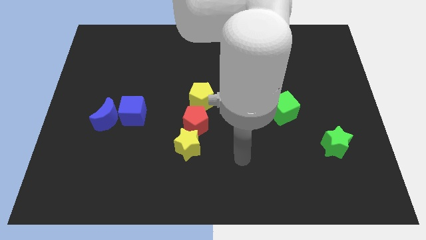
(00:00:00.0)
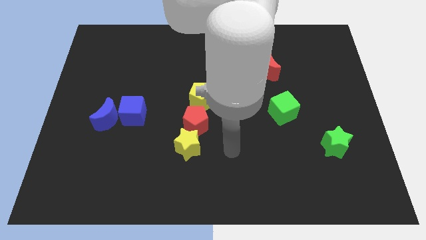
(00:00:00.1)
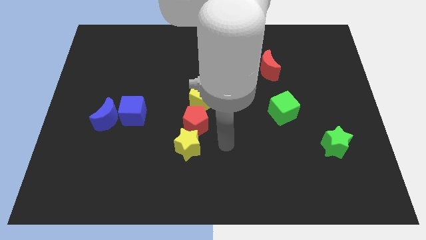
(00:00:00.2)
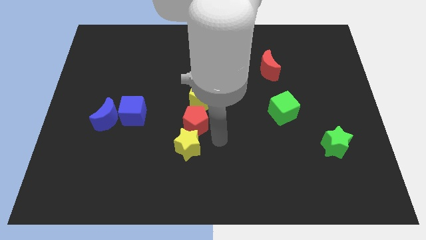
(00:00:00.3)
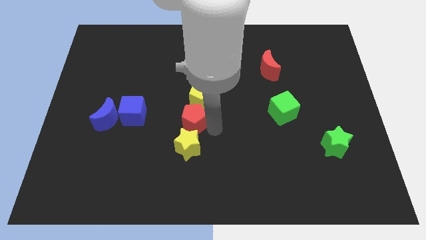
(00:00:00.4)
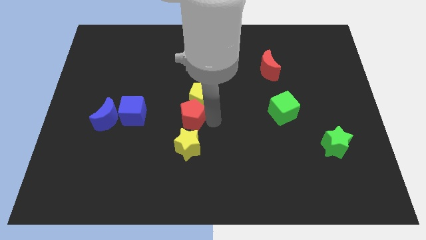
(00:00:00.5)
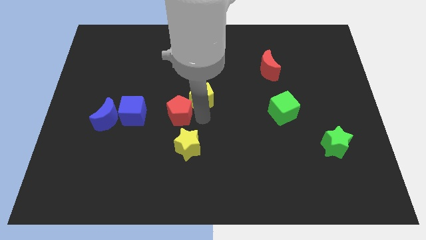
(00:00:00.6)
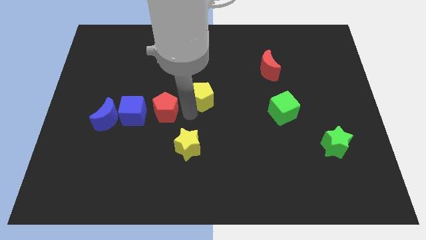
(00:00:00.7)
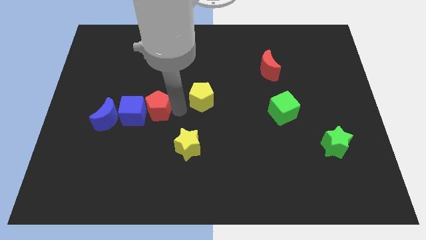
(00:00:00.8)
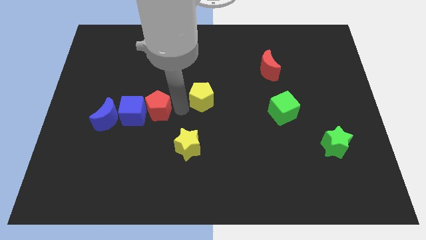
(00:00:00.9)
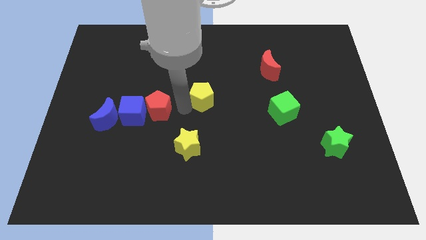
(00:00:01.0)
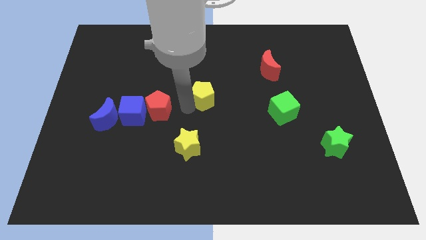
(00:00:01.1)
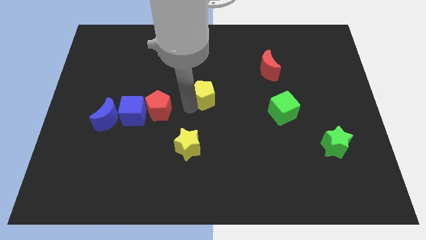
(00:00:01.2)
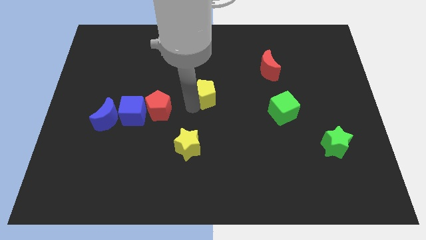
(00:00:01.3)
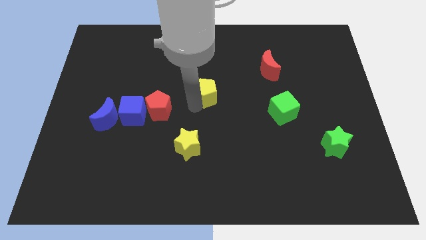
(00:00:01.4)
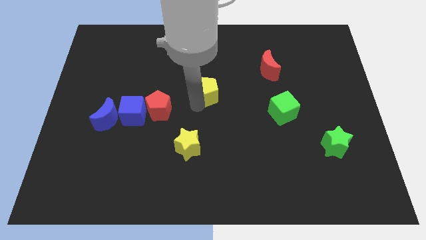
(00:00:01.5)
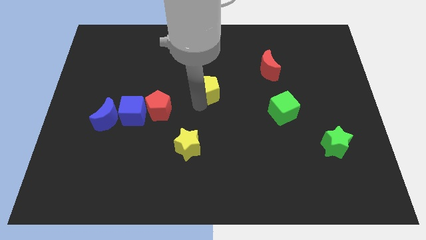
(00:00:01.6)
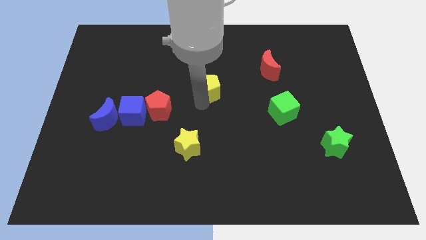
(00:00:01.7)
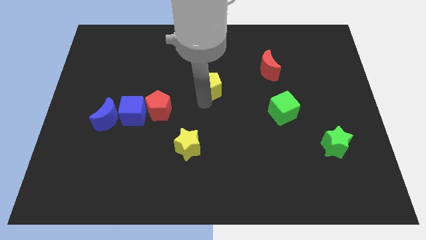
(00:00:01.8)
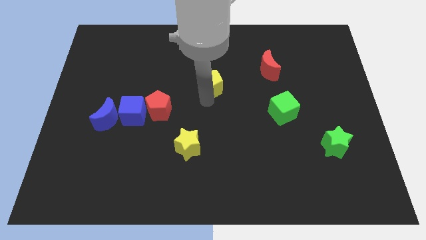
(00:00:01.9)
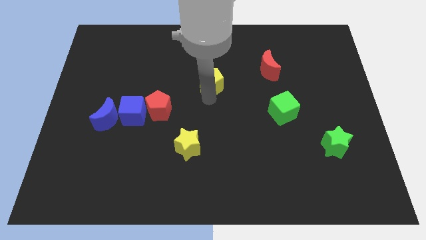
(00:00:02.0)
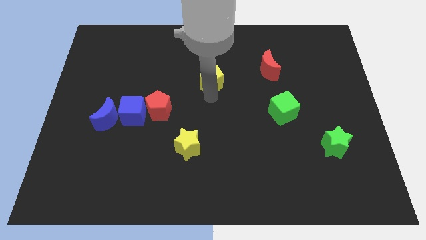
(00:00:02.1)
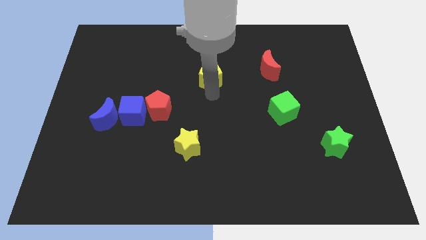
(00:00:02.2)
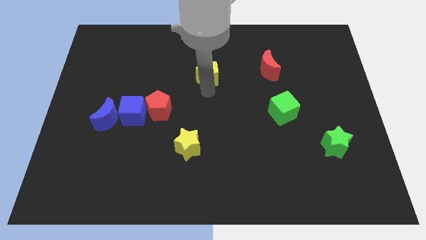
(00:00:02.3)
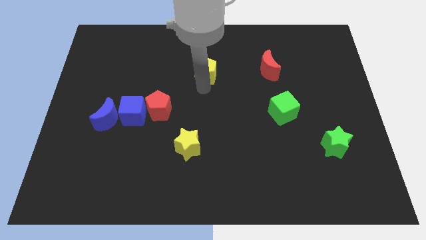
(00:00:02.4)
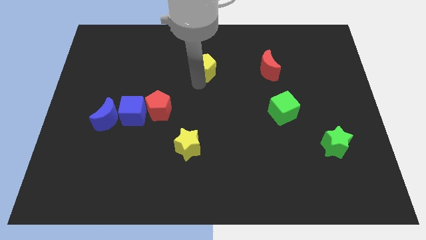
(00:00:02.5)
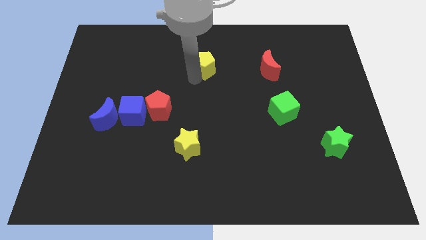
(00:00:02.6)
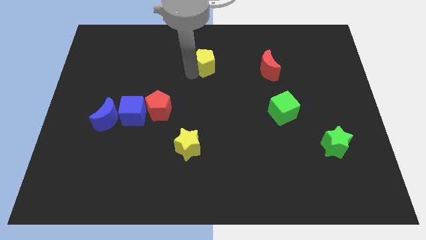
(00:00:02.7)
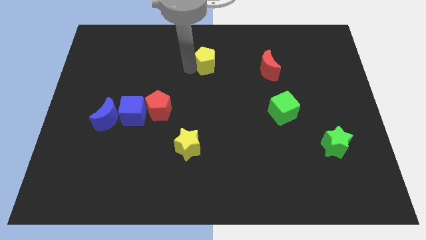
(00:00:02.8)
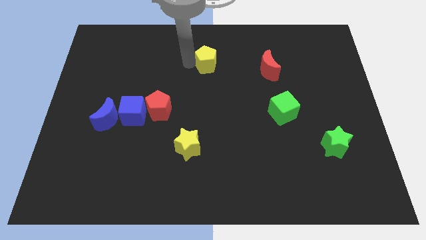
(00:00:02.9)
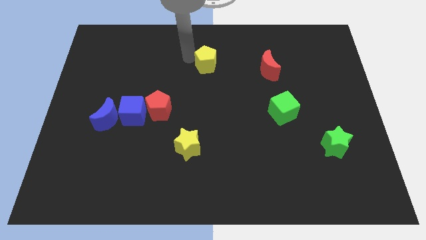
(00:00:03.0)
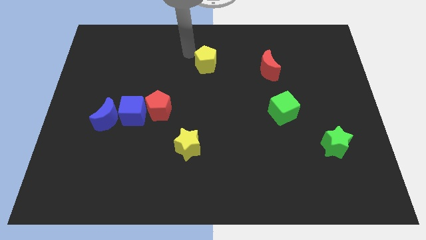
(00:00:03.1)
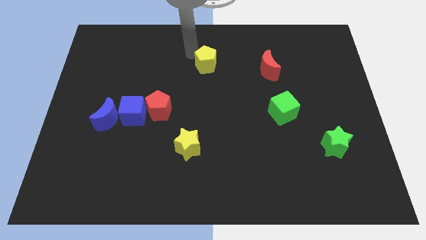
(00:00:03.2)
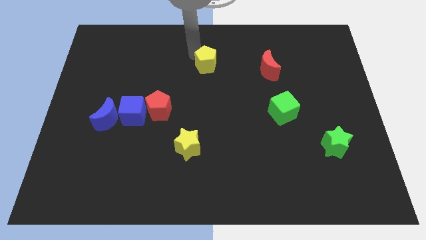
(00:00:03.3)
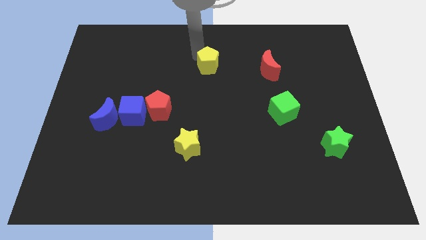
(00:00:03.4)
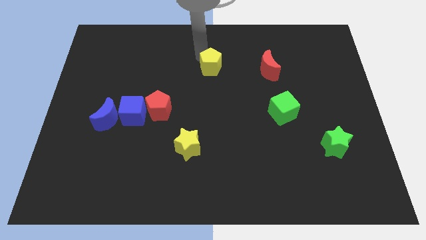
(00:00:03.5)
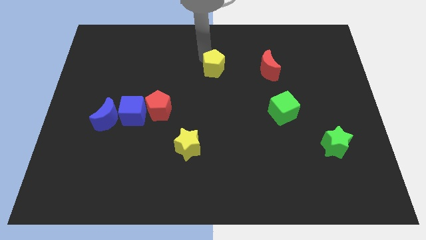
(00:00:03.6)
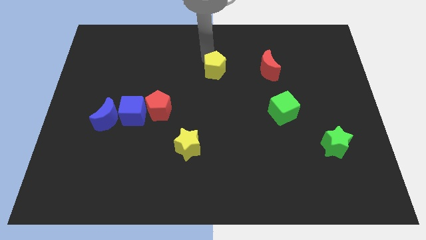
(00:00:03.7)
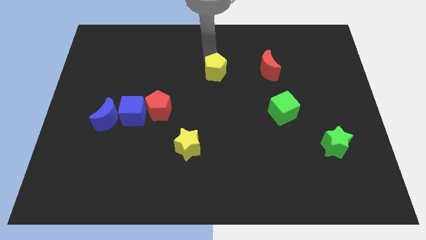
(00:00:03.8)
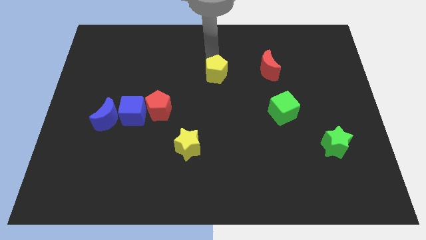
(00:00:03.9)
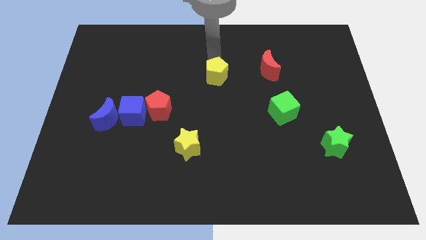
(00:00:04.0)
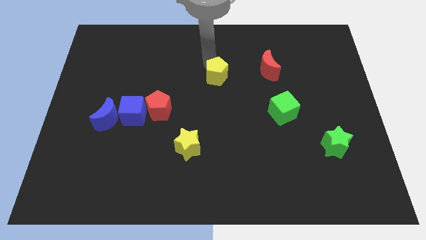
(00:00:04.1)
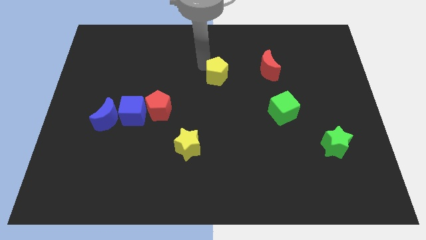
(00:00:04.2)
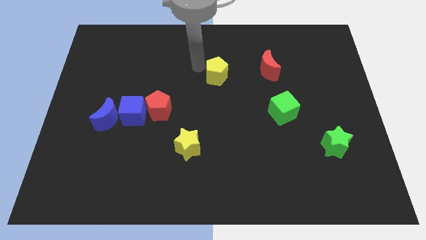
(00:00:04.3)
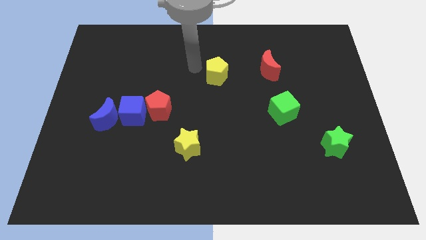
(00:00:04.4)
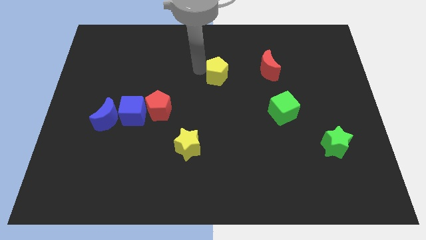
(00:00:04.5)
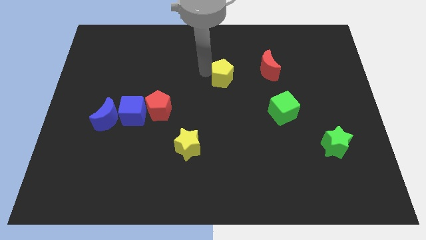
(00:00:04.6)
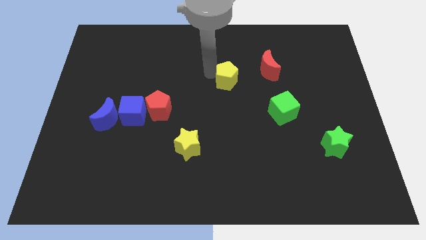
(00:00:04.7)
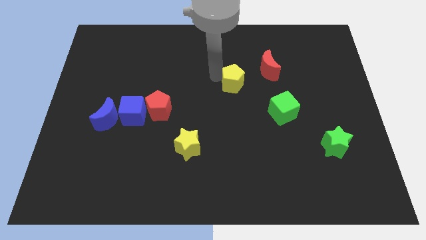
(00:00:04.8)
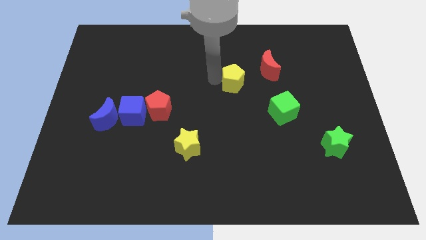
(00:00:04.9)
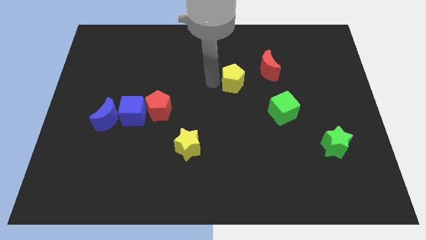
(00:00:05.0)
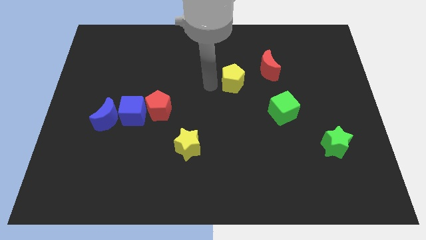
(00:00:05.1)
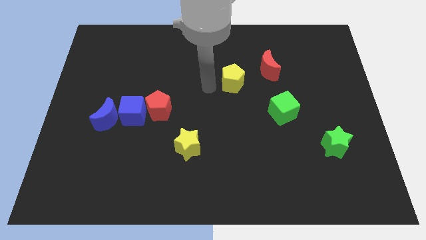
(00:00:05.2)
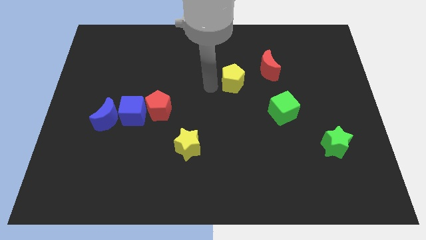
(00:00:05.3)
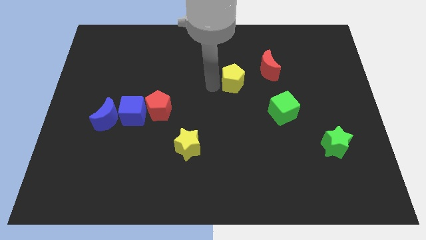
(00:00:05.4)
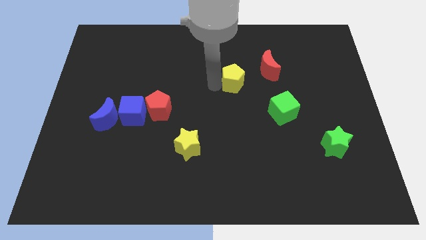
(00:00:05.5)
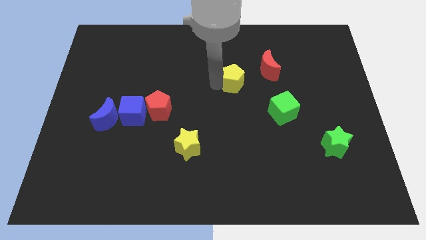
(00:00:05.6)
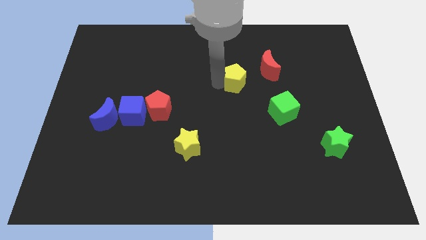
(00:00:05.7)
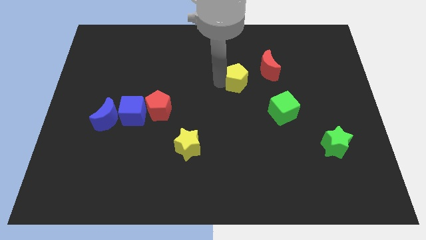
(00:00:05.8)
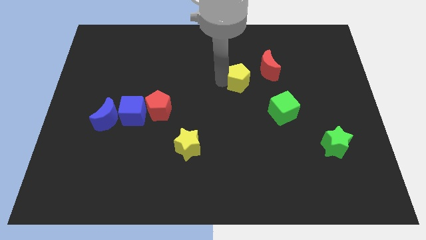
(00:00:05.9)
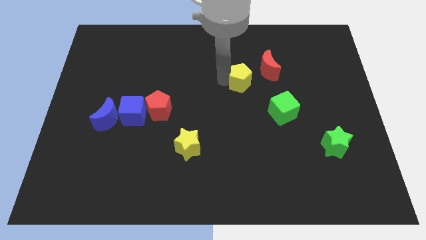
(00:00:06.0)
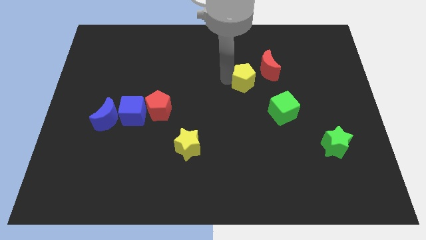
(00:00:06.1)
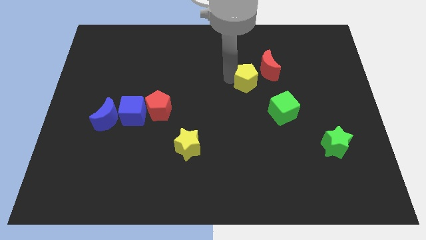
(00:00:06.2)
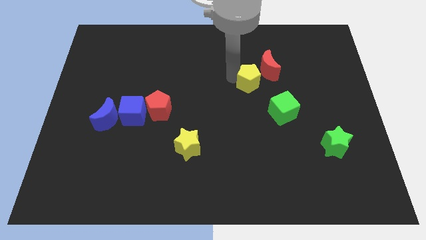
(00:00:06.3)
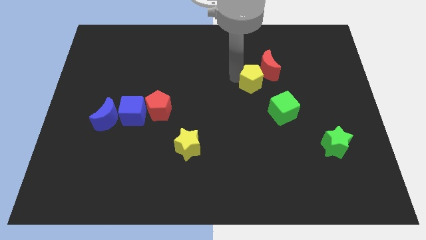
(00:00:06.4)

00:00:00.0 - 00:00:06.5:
push the yellow pentagon next to the red moon

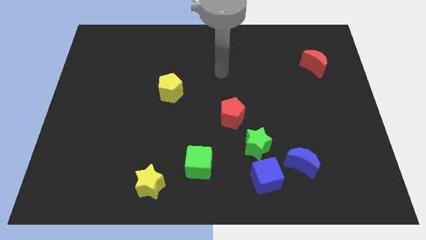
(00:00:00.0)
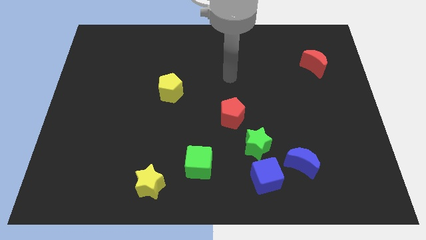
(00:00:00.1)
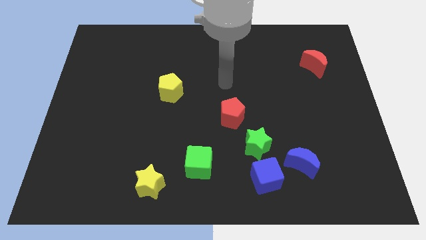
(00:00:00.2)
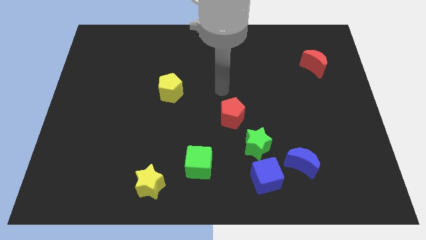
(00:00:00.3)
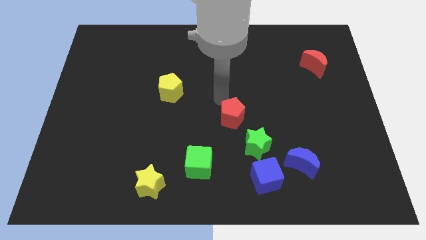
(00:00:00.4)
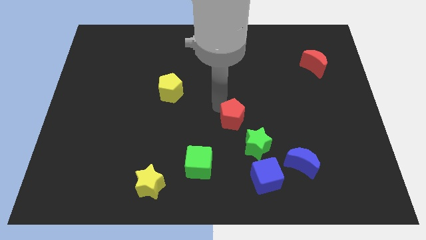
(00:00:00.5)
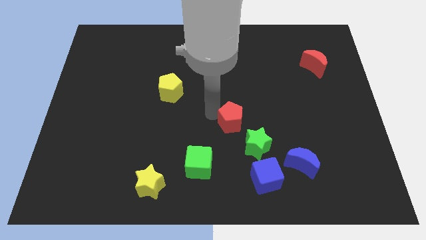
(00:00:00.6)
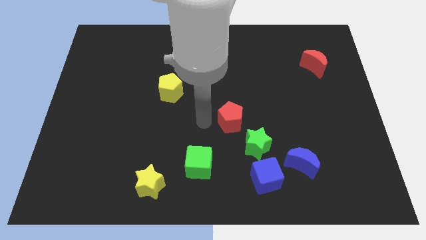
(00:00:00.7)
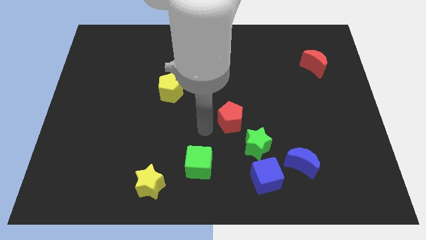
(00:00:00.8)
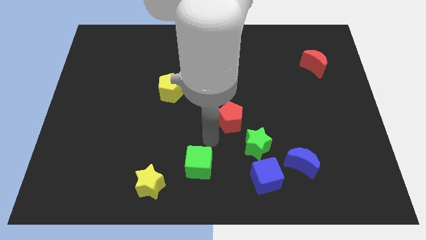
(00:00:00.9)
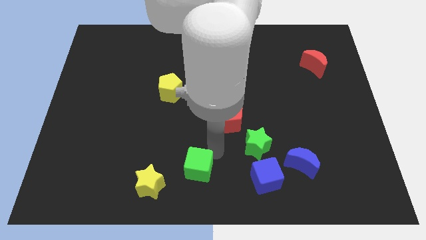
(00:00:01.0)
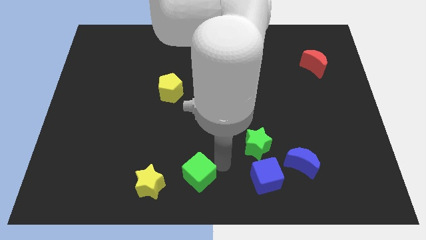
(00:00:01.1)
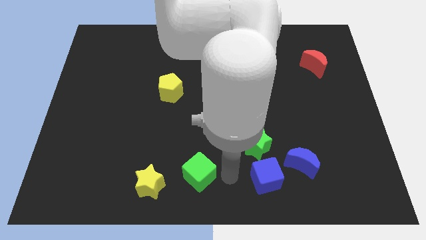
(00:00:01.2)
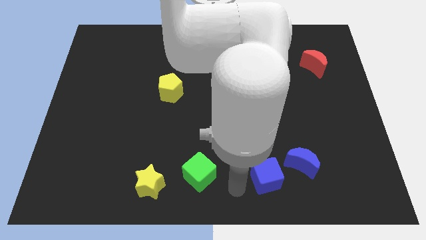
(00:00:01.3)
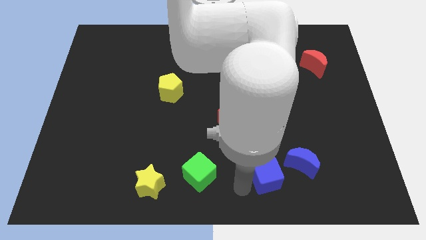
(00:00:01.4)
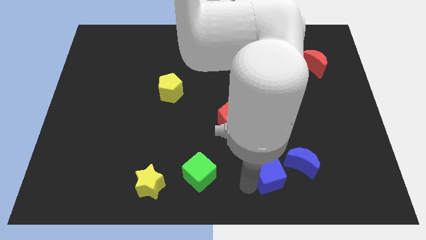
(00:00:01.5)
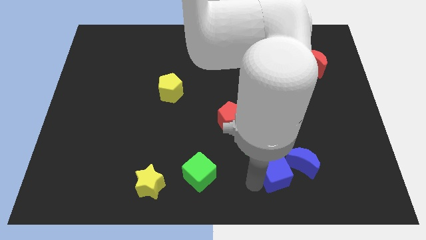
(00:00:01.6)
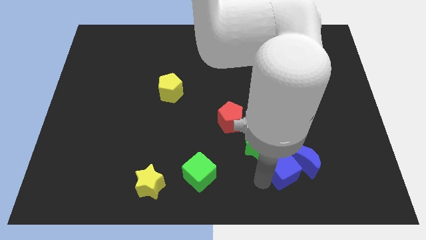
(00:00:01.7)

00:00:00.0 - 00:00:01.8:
slide the blue cube to the blue moon
